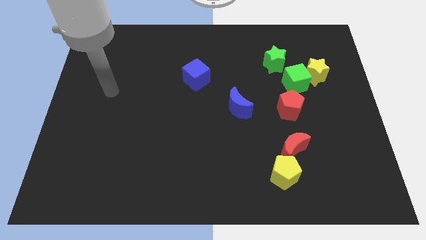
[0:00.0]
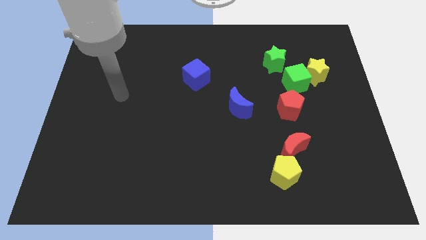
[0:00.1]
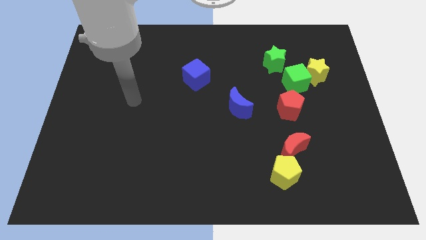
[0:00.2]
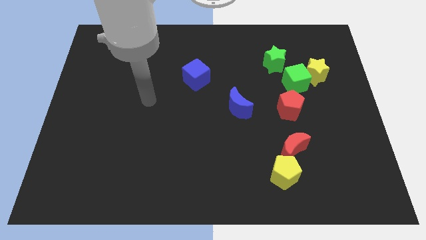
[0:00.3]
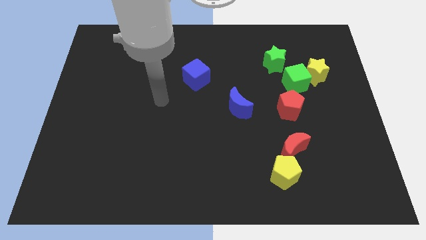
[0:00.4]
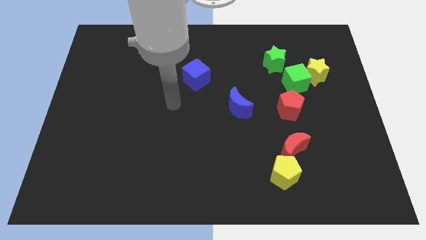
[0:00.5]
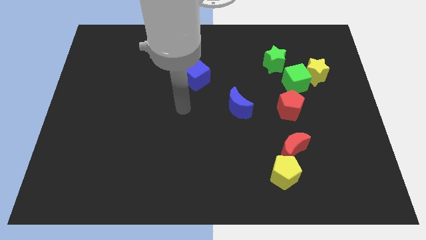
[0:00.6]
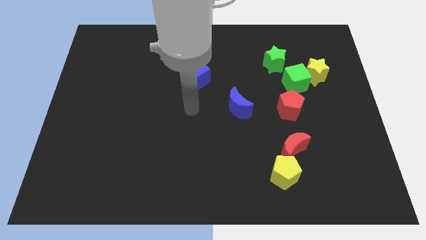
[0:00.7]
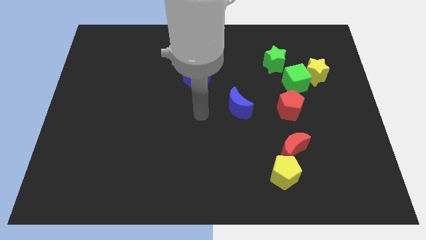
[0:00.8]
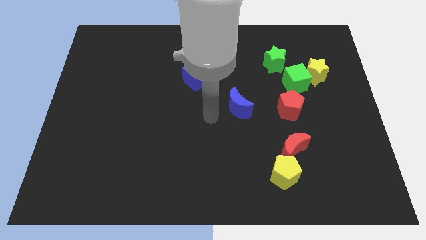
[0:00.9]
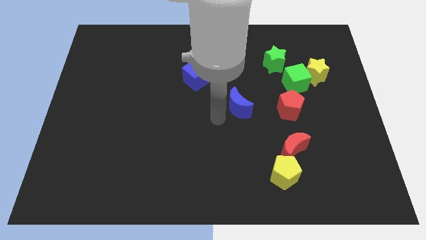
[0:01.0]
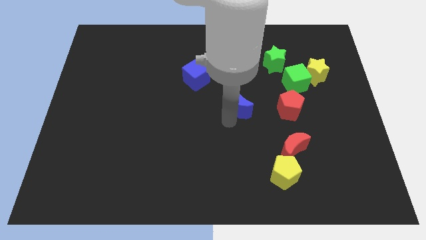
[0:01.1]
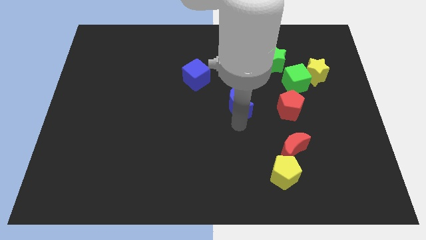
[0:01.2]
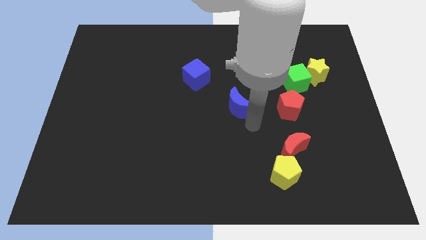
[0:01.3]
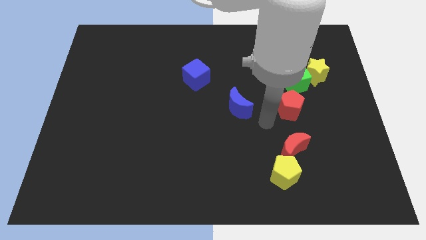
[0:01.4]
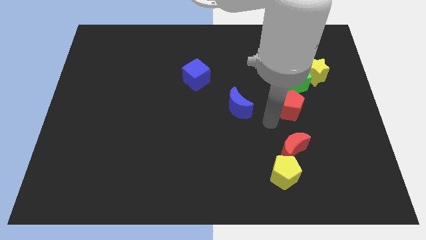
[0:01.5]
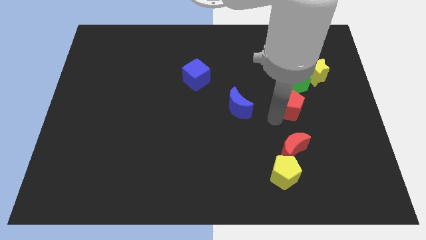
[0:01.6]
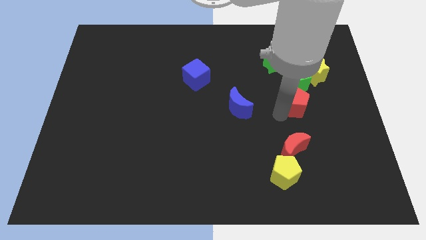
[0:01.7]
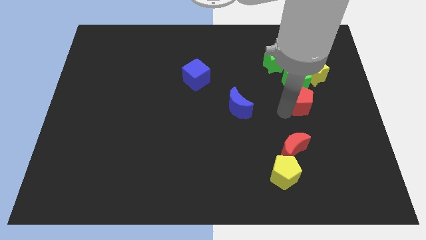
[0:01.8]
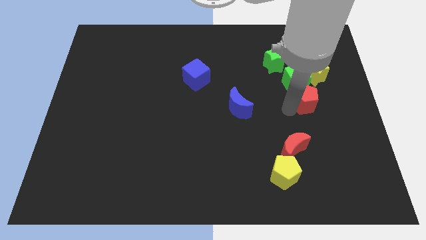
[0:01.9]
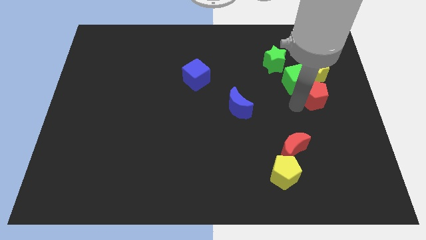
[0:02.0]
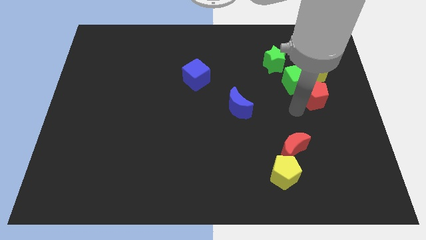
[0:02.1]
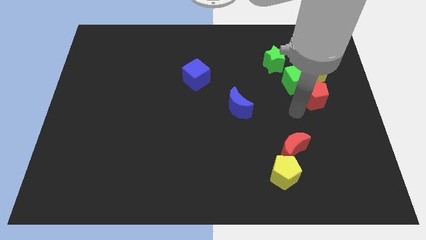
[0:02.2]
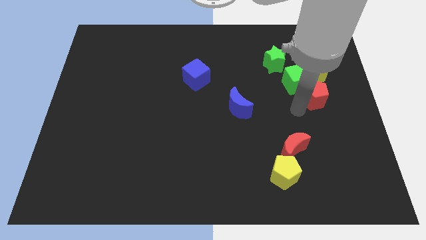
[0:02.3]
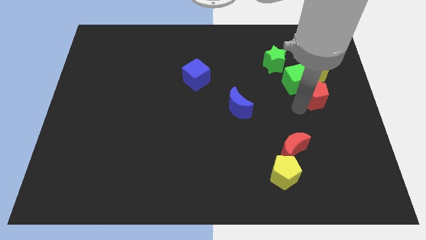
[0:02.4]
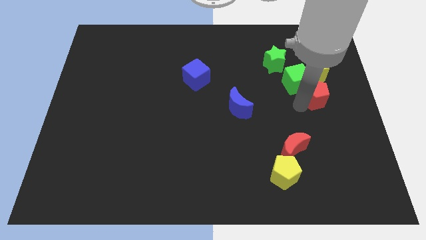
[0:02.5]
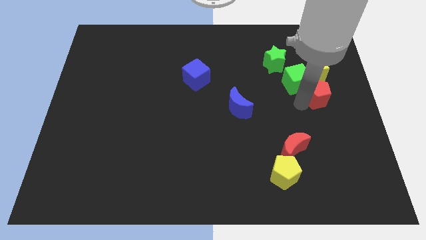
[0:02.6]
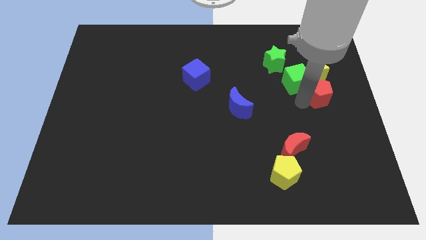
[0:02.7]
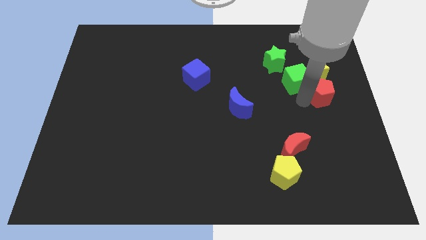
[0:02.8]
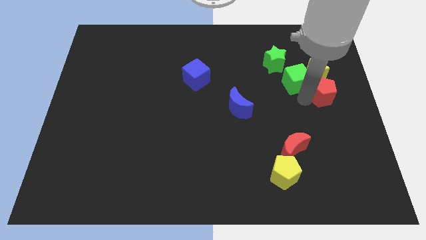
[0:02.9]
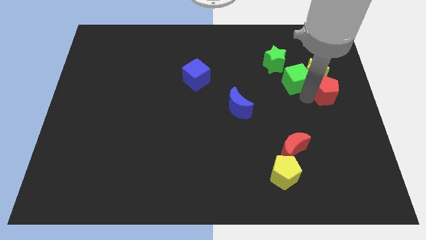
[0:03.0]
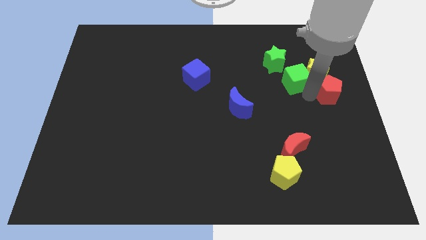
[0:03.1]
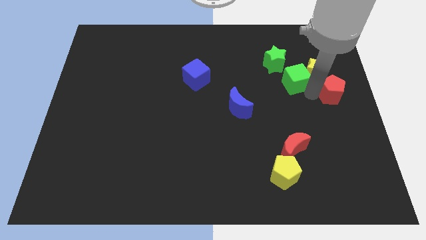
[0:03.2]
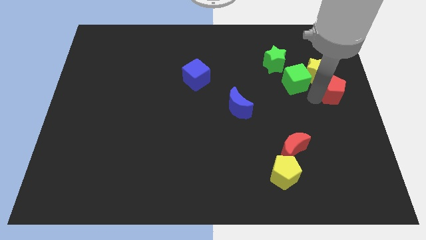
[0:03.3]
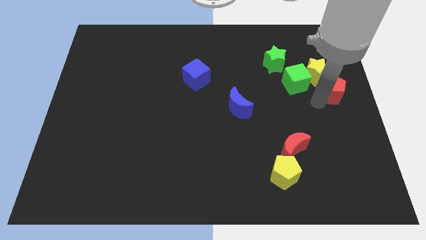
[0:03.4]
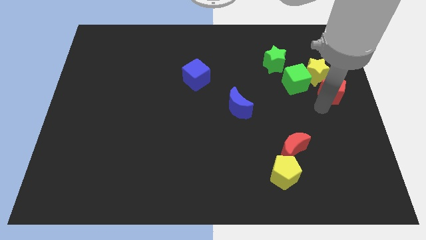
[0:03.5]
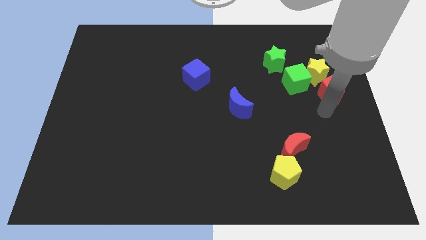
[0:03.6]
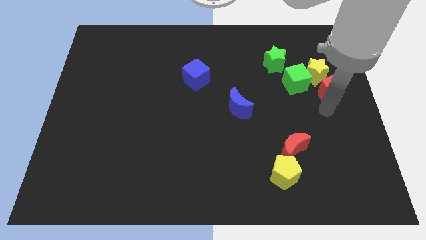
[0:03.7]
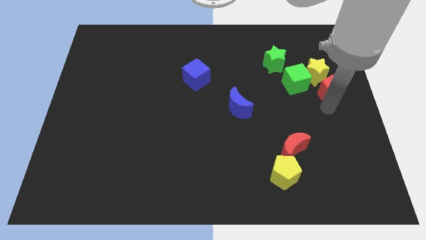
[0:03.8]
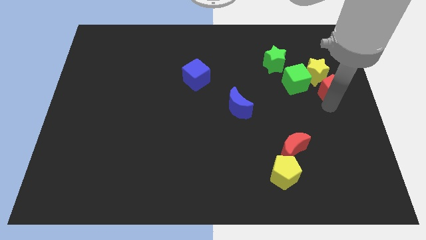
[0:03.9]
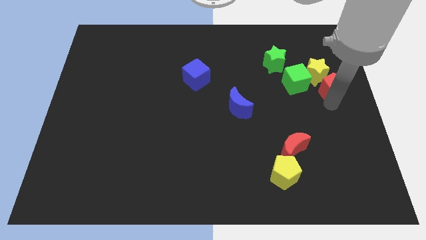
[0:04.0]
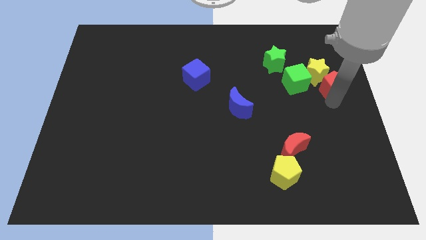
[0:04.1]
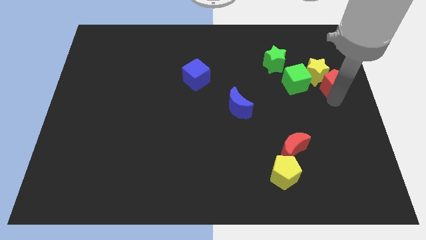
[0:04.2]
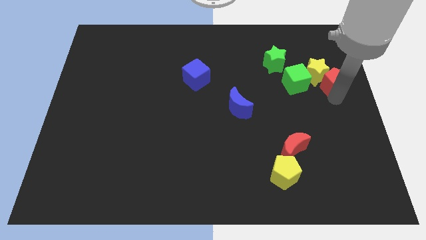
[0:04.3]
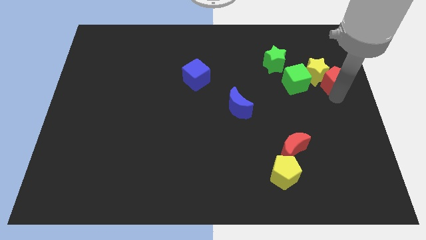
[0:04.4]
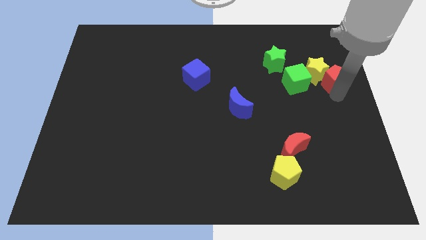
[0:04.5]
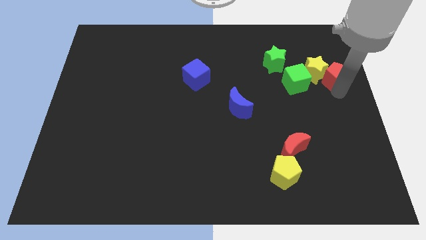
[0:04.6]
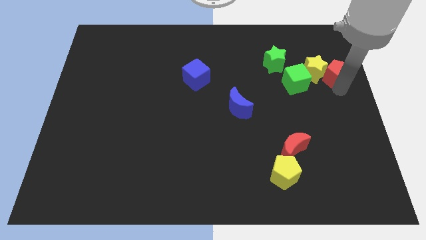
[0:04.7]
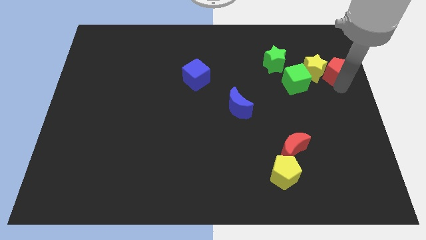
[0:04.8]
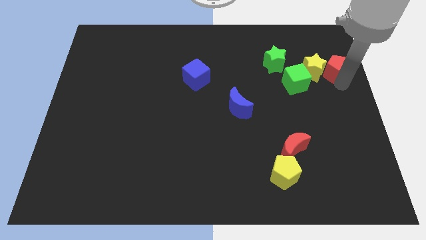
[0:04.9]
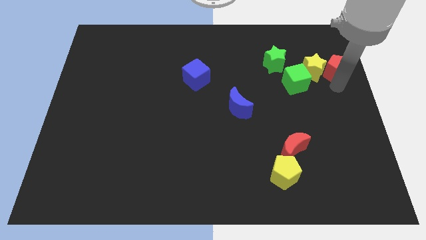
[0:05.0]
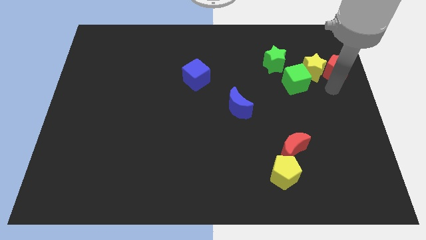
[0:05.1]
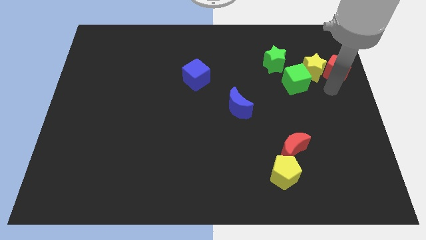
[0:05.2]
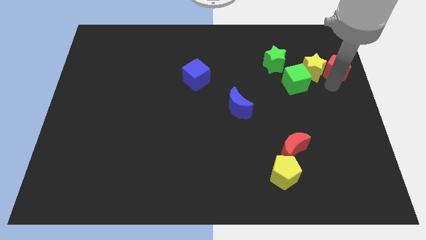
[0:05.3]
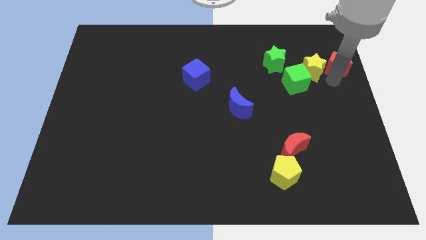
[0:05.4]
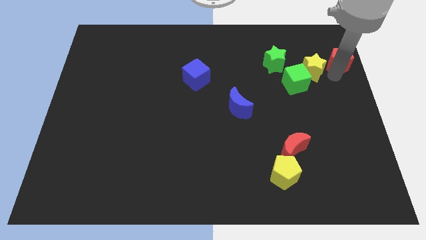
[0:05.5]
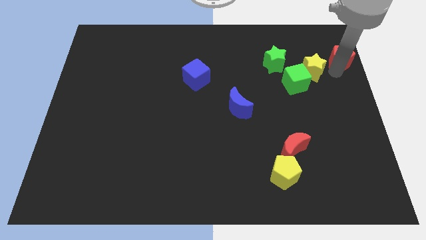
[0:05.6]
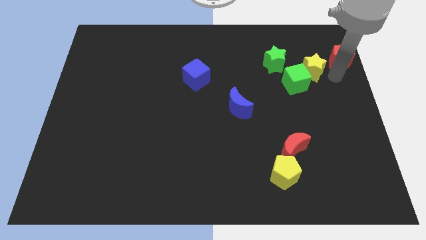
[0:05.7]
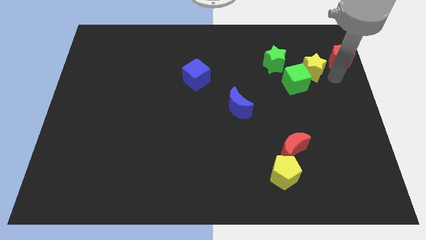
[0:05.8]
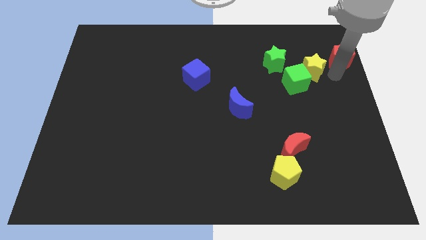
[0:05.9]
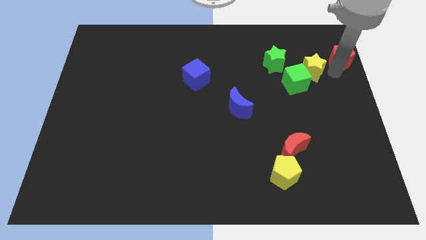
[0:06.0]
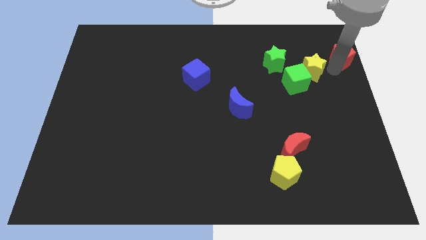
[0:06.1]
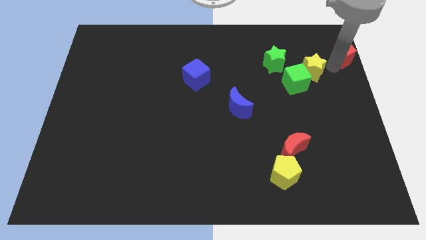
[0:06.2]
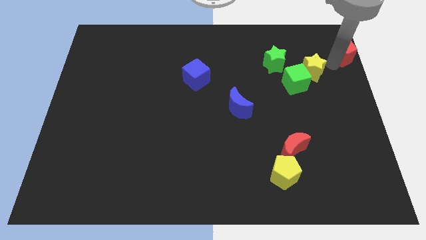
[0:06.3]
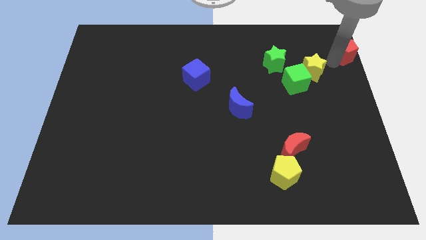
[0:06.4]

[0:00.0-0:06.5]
slide the red pentagon to the top right

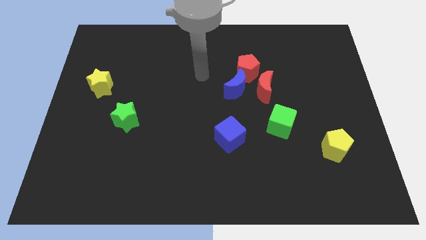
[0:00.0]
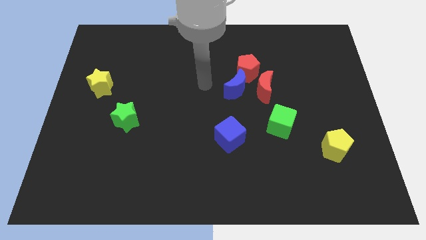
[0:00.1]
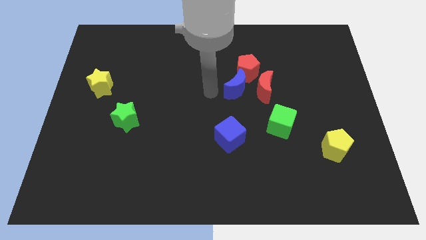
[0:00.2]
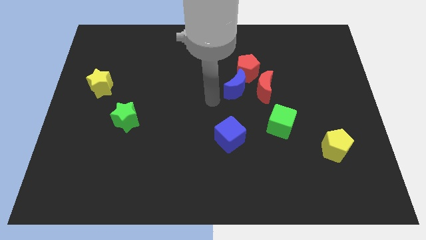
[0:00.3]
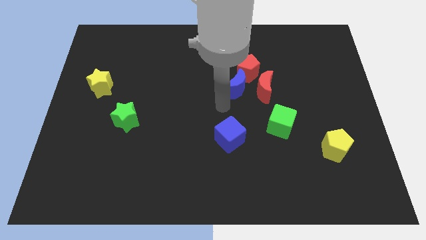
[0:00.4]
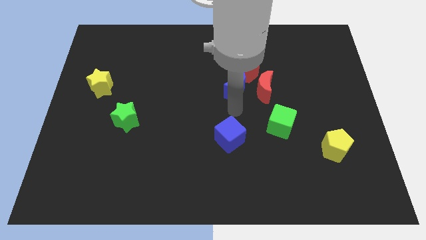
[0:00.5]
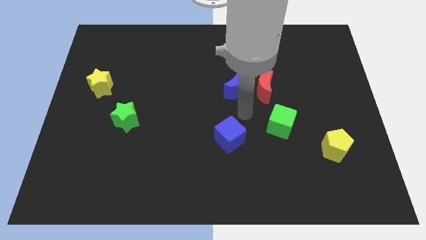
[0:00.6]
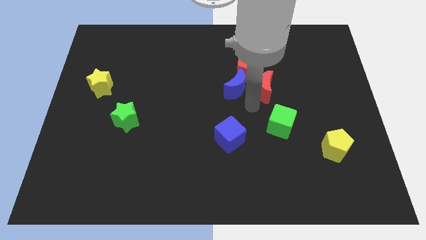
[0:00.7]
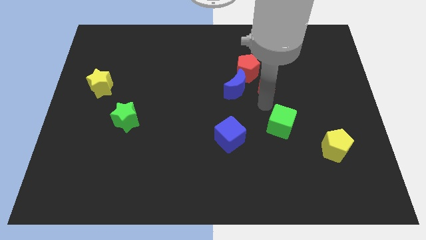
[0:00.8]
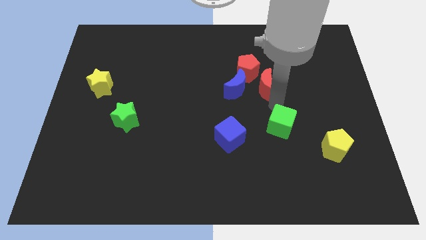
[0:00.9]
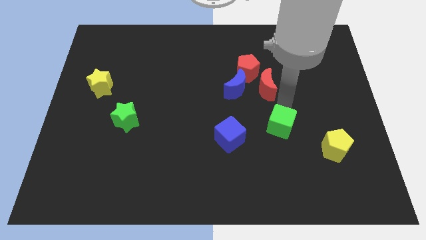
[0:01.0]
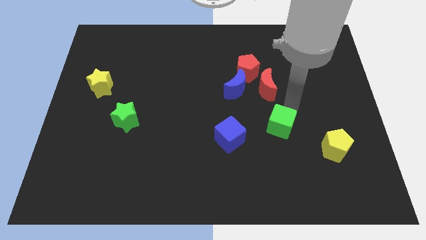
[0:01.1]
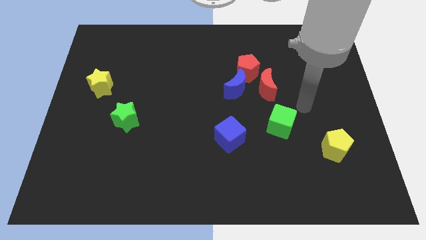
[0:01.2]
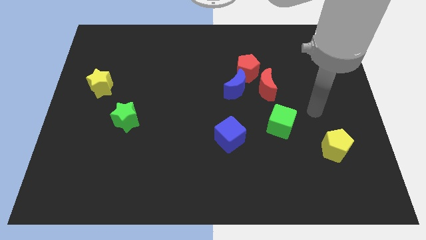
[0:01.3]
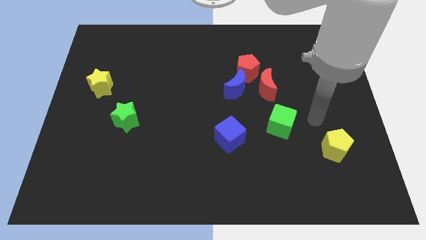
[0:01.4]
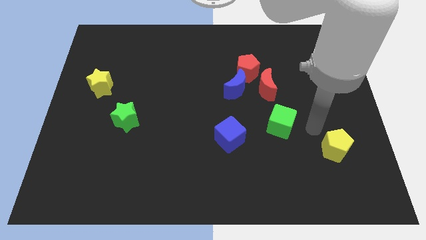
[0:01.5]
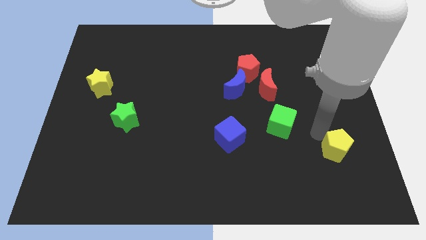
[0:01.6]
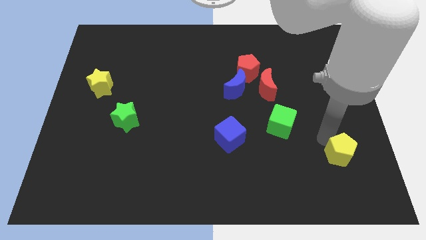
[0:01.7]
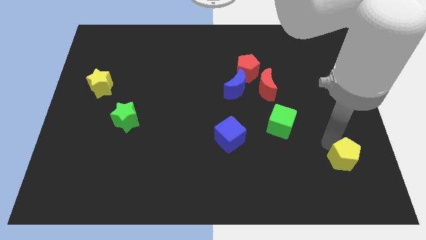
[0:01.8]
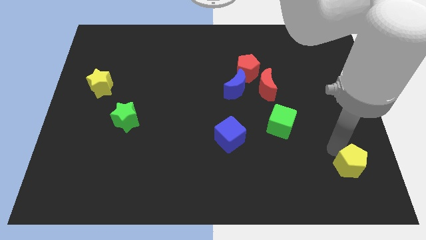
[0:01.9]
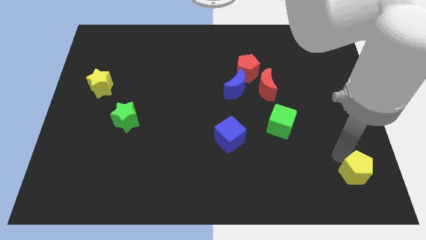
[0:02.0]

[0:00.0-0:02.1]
put the yellow pentagon to the lower right corner
